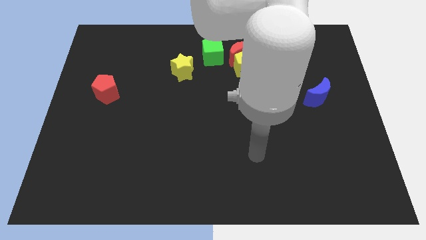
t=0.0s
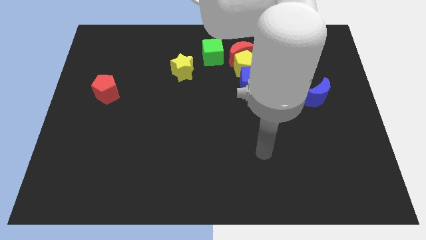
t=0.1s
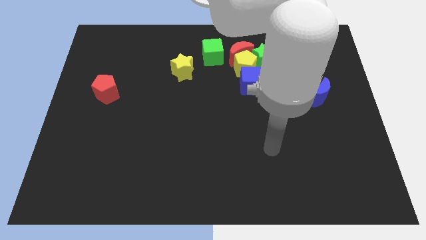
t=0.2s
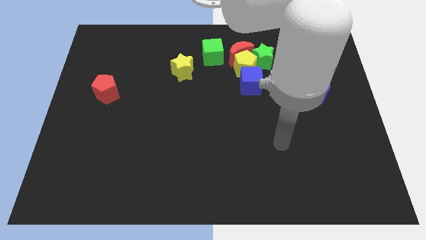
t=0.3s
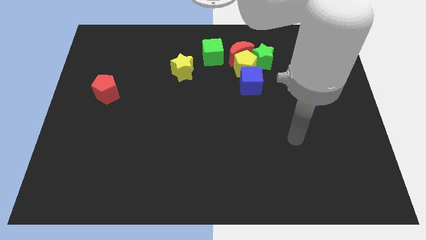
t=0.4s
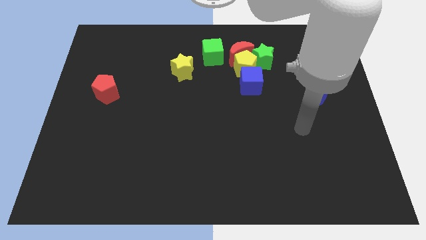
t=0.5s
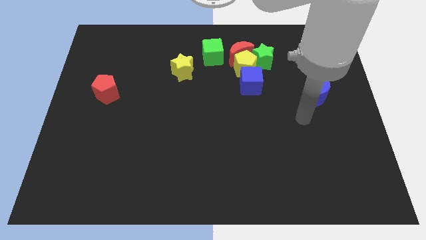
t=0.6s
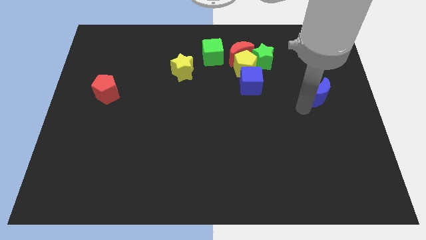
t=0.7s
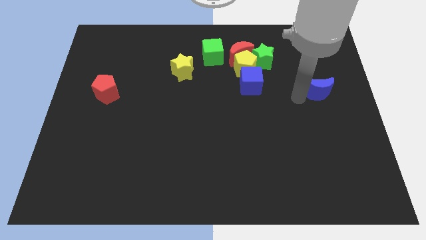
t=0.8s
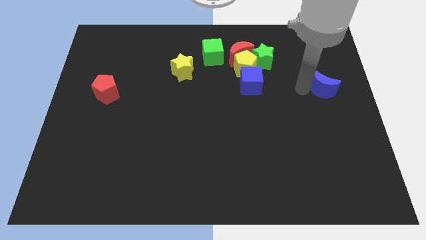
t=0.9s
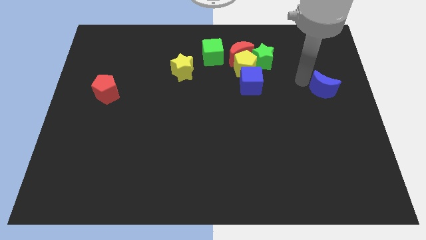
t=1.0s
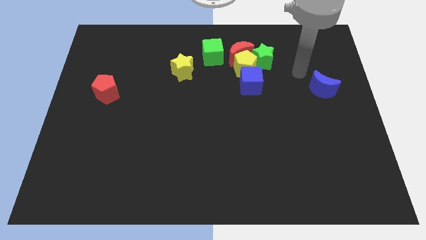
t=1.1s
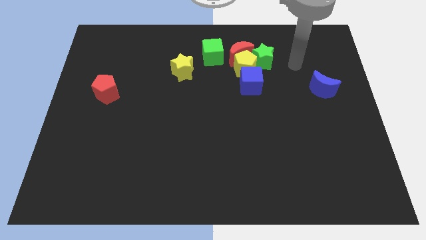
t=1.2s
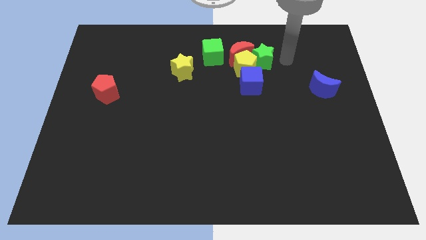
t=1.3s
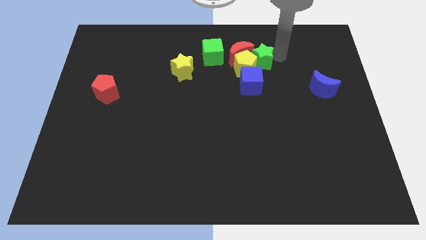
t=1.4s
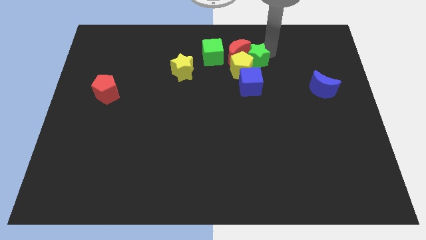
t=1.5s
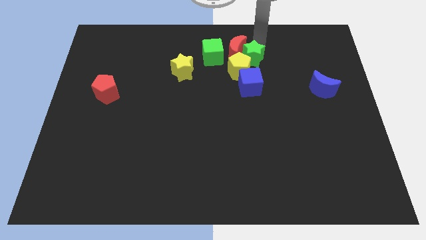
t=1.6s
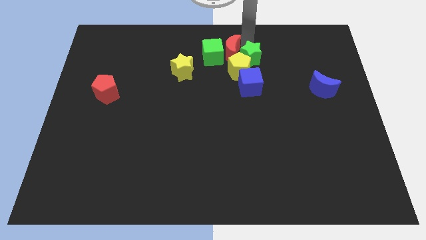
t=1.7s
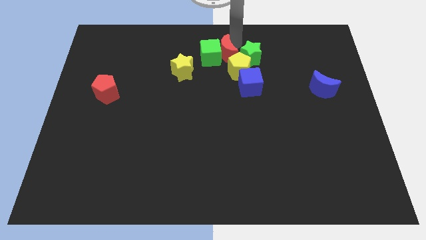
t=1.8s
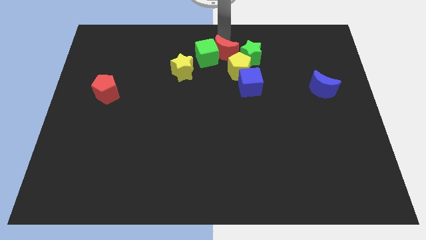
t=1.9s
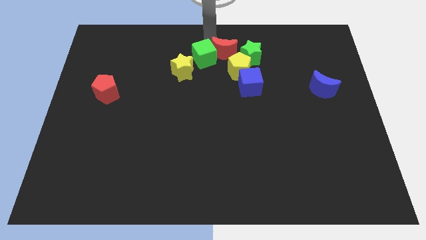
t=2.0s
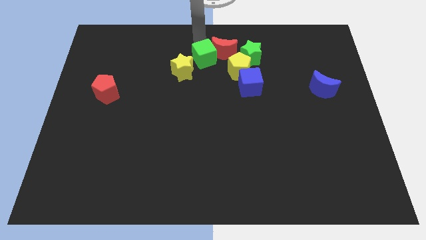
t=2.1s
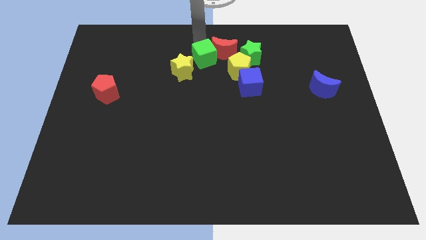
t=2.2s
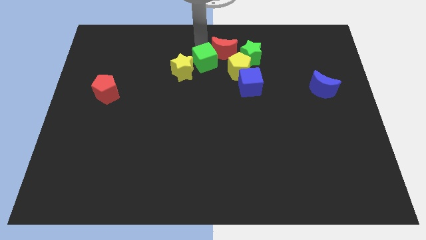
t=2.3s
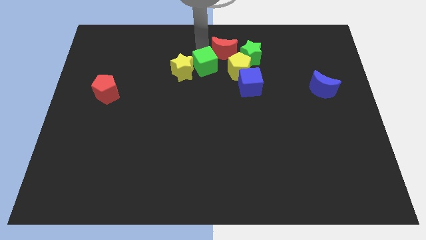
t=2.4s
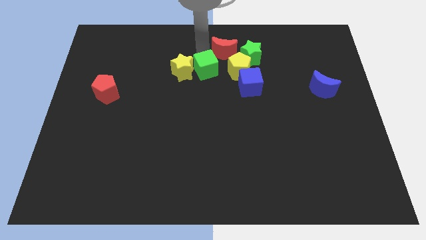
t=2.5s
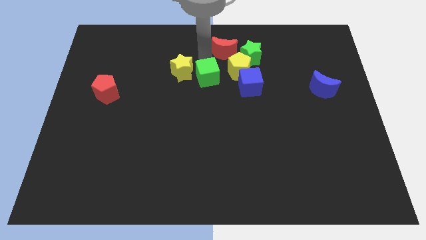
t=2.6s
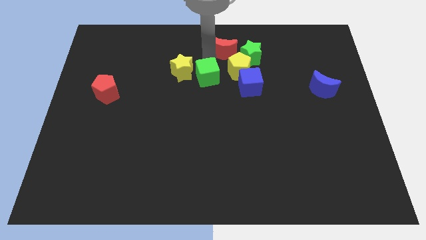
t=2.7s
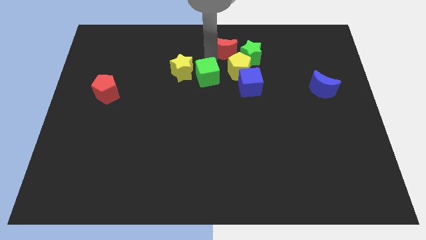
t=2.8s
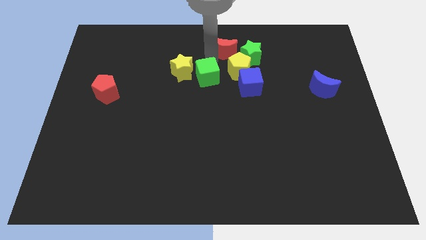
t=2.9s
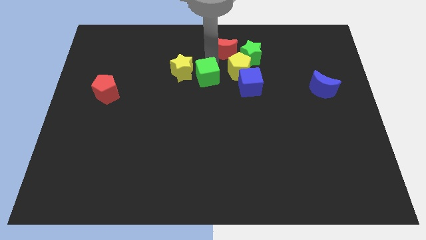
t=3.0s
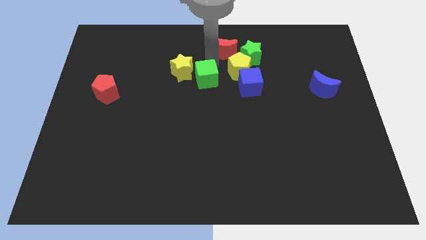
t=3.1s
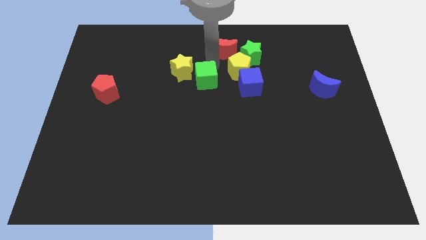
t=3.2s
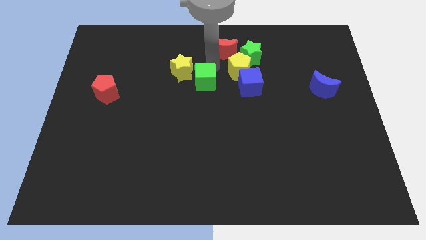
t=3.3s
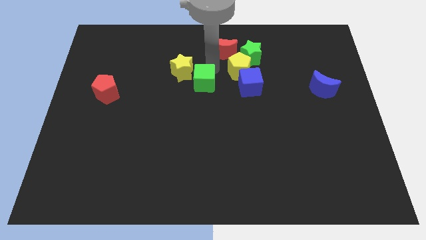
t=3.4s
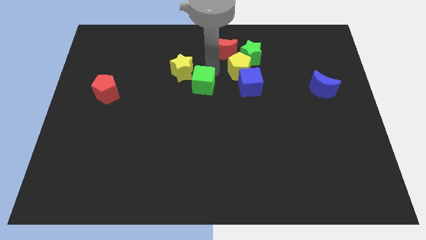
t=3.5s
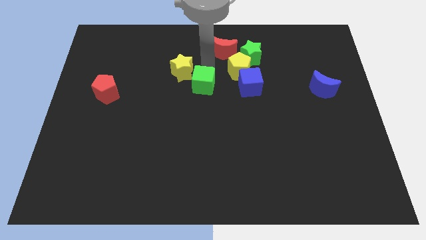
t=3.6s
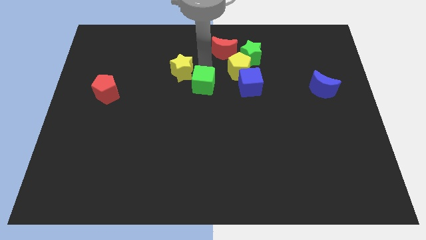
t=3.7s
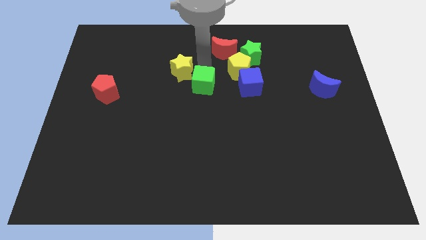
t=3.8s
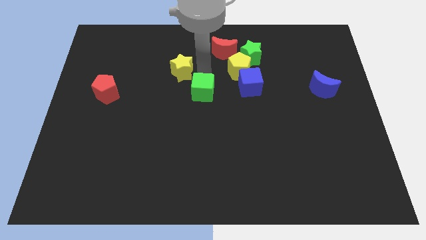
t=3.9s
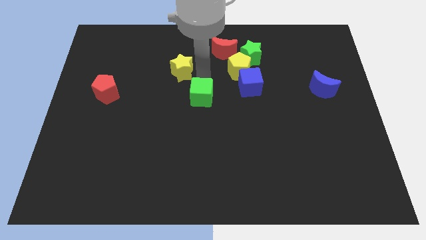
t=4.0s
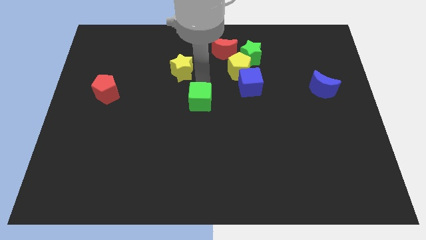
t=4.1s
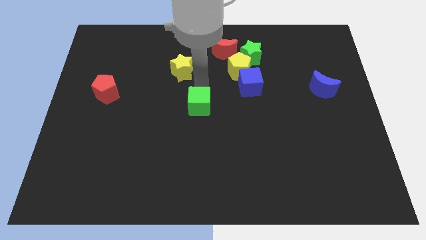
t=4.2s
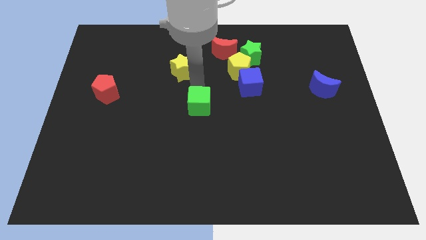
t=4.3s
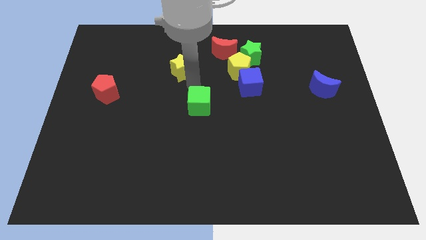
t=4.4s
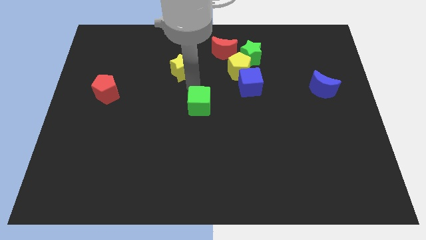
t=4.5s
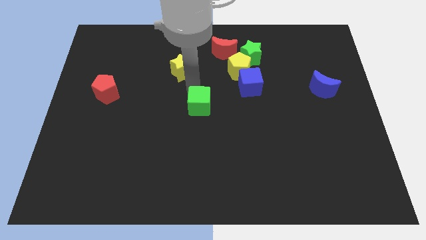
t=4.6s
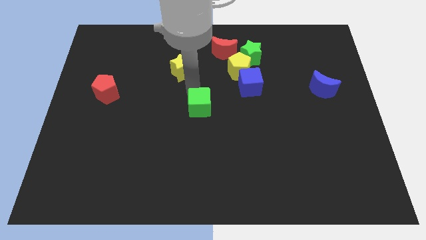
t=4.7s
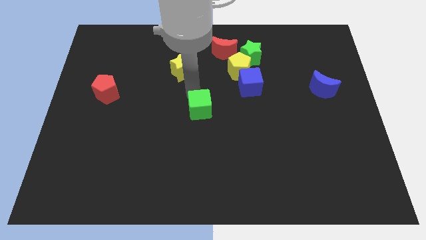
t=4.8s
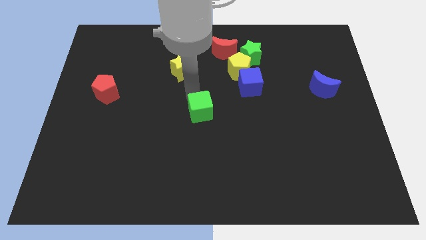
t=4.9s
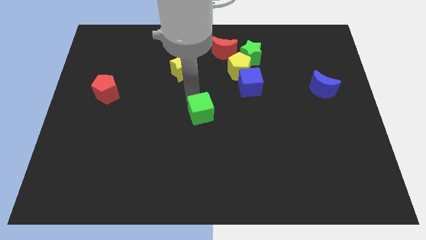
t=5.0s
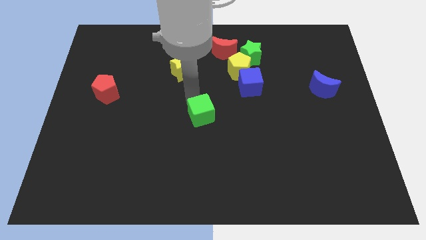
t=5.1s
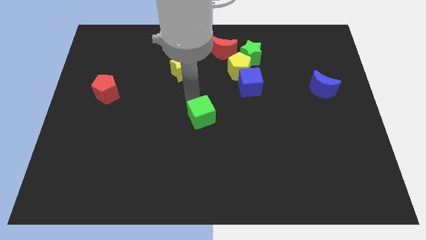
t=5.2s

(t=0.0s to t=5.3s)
move the green cube down

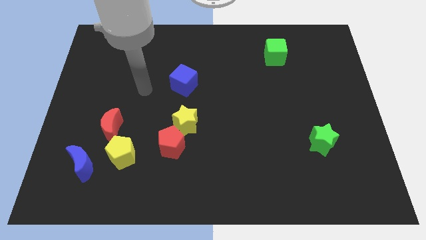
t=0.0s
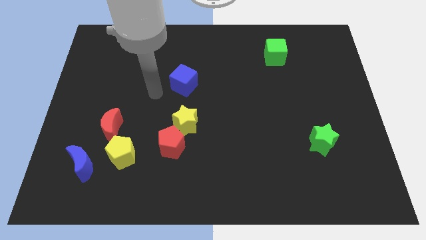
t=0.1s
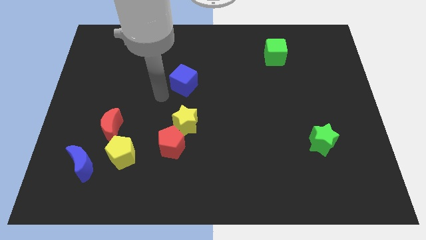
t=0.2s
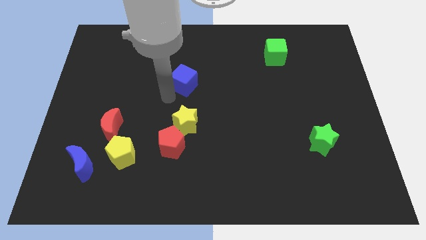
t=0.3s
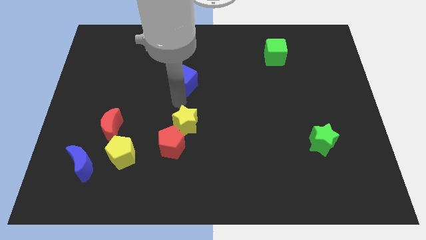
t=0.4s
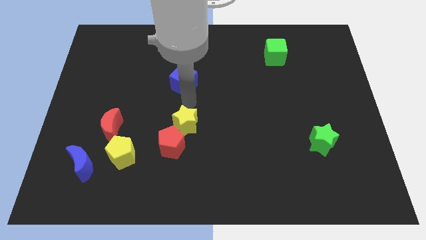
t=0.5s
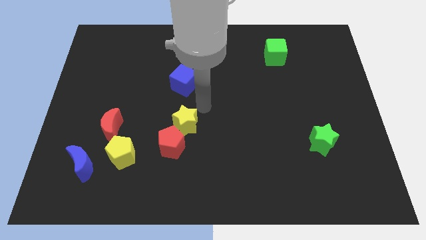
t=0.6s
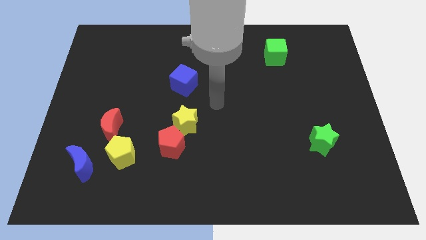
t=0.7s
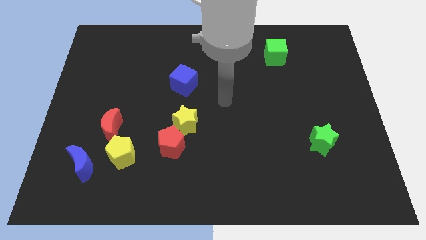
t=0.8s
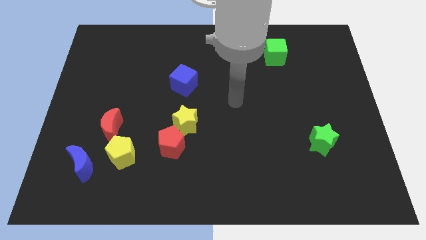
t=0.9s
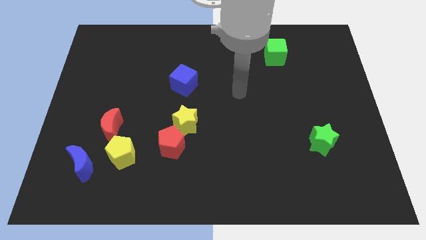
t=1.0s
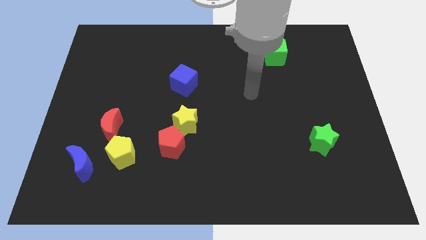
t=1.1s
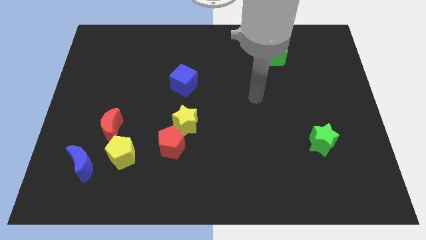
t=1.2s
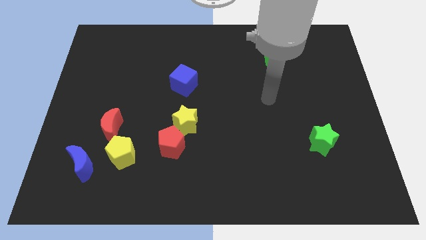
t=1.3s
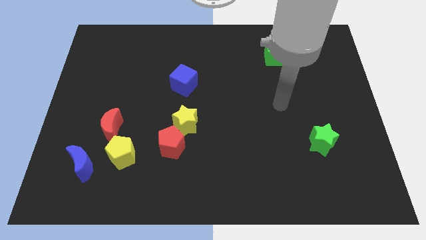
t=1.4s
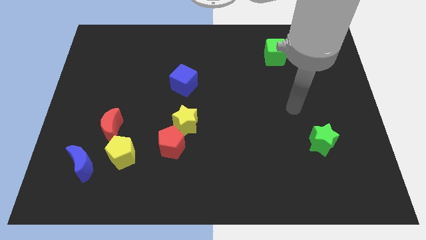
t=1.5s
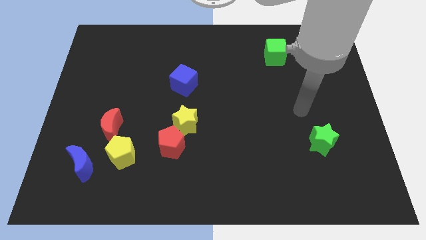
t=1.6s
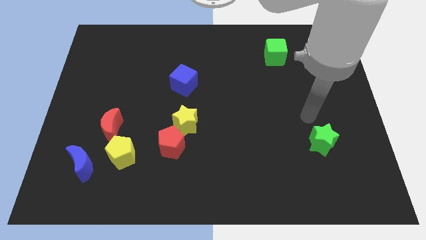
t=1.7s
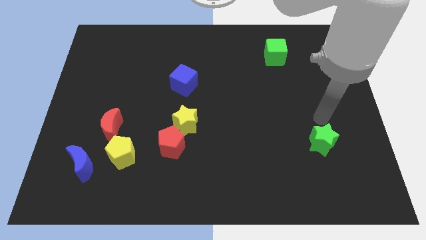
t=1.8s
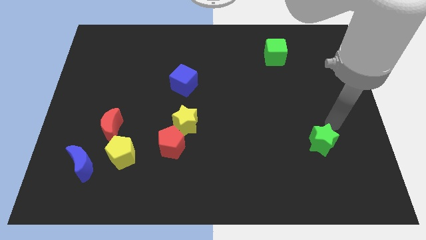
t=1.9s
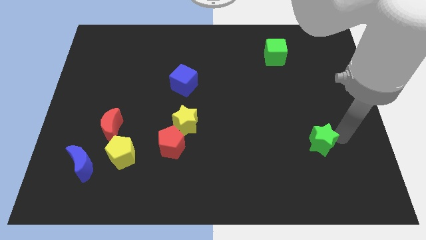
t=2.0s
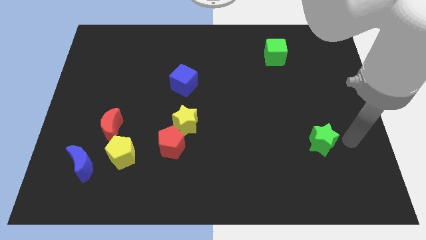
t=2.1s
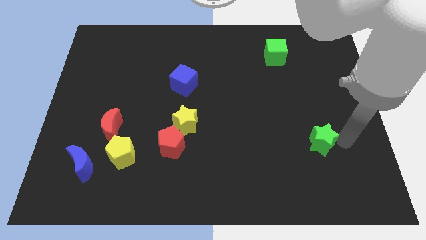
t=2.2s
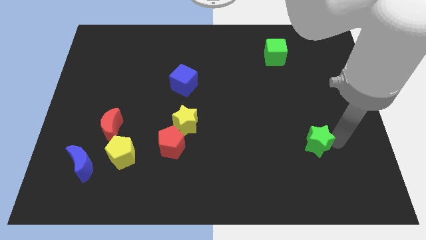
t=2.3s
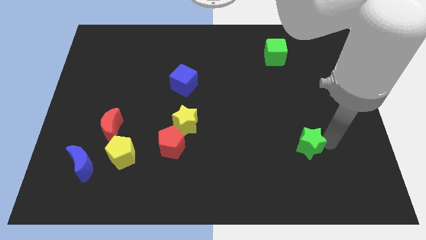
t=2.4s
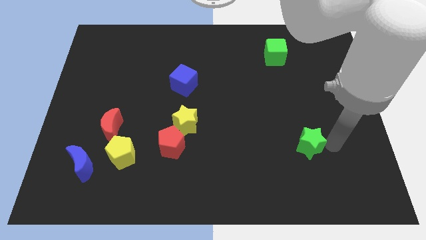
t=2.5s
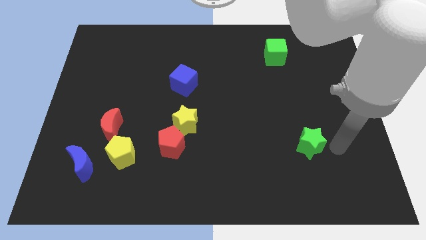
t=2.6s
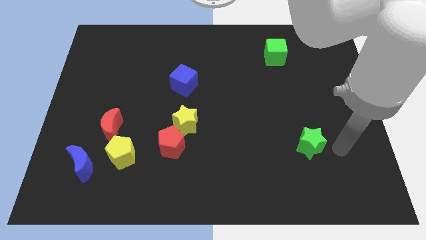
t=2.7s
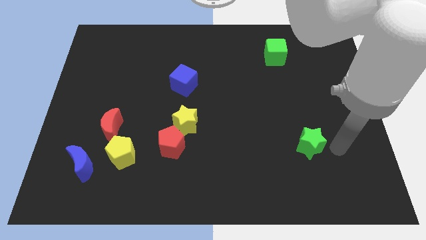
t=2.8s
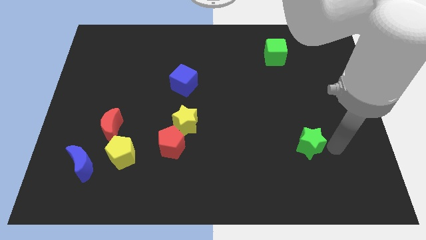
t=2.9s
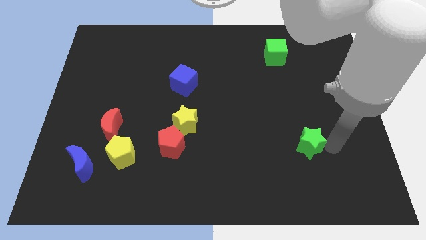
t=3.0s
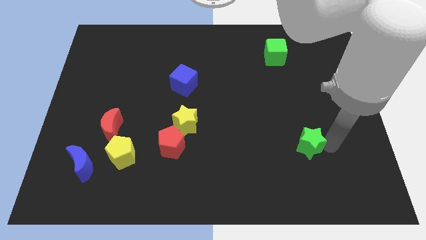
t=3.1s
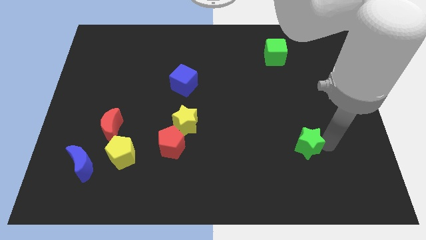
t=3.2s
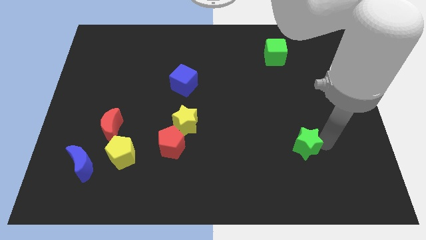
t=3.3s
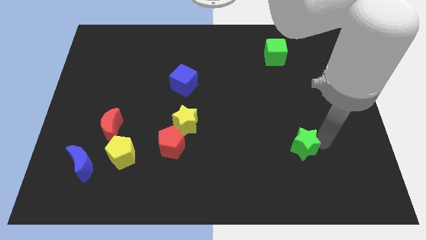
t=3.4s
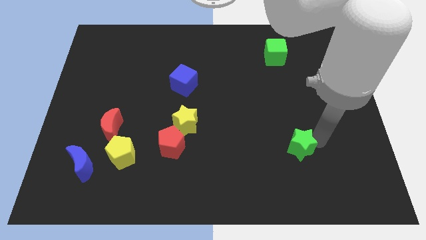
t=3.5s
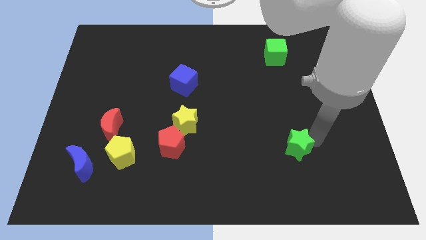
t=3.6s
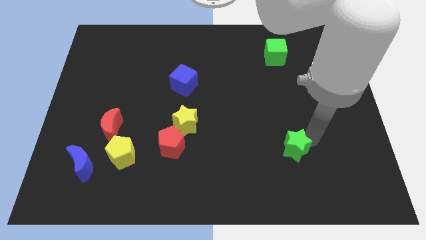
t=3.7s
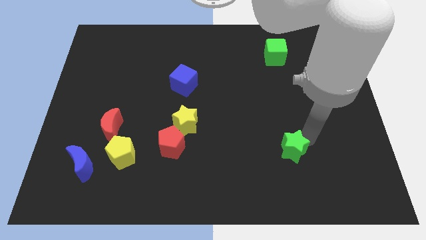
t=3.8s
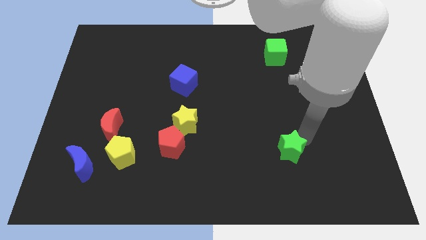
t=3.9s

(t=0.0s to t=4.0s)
slightly slide the green star to the left
